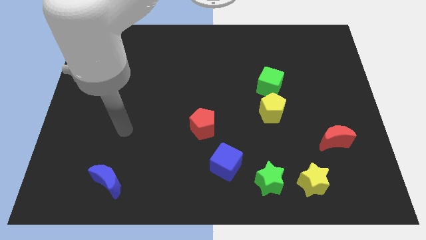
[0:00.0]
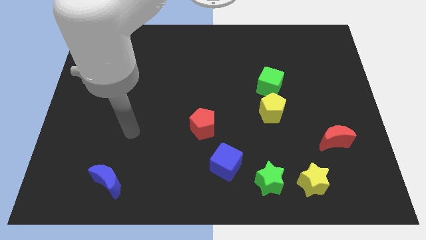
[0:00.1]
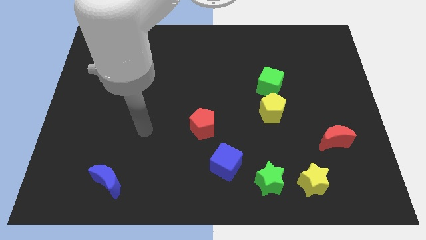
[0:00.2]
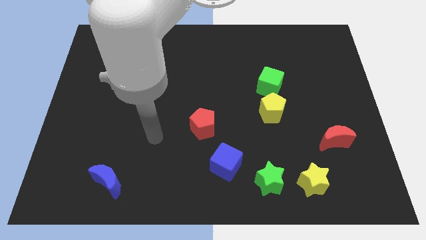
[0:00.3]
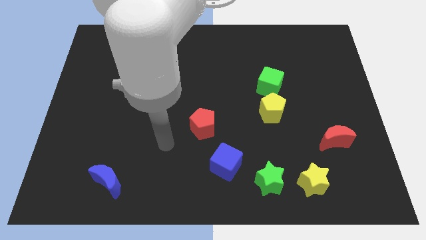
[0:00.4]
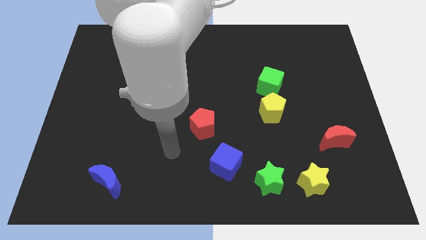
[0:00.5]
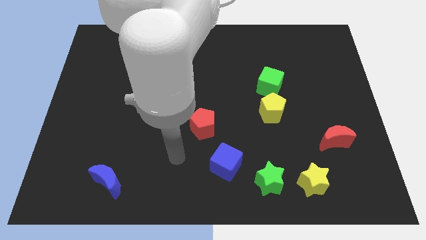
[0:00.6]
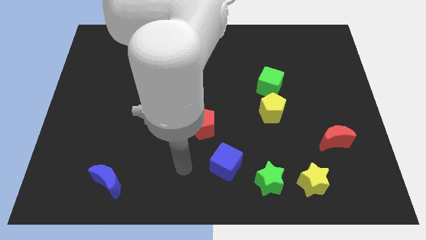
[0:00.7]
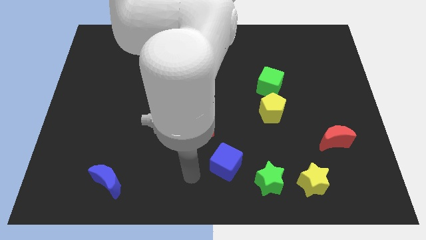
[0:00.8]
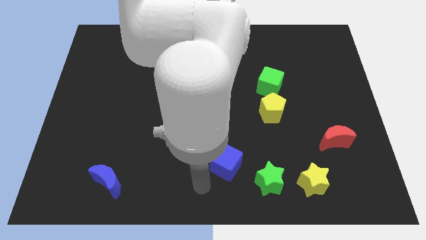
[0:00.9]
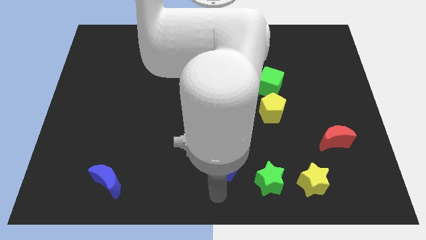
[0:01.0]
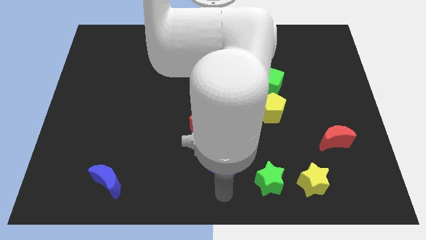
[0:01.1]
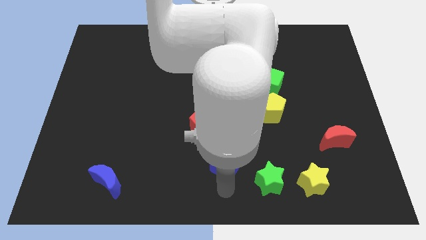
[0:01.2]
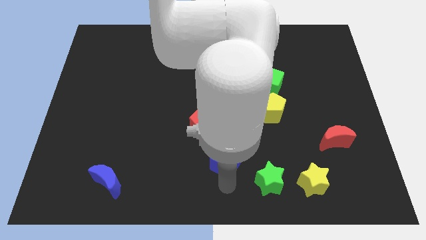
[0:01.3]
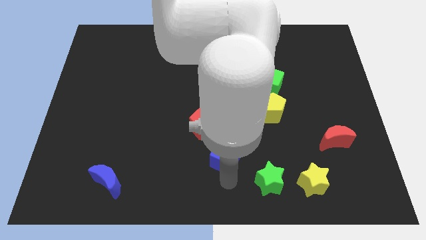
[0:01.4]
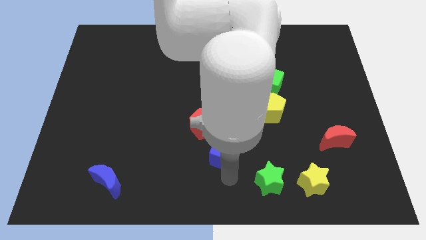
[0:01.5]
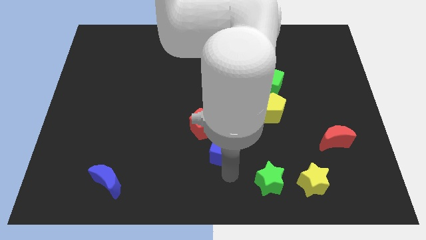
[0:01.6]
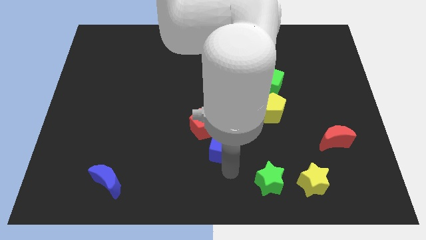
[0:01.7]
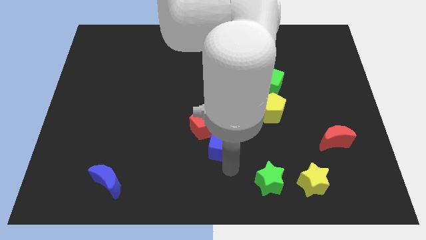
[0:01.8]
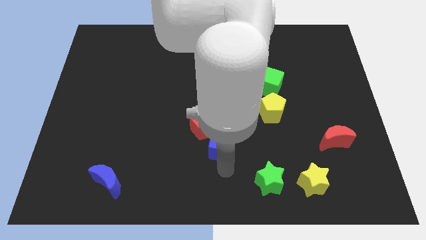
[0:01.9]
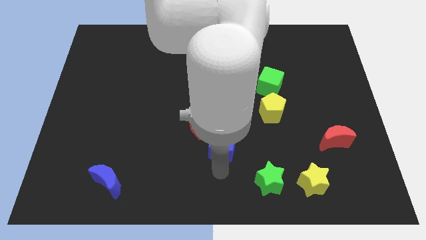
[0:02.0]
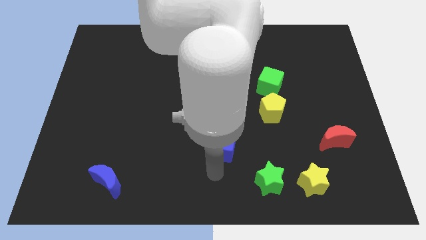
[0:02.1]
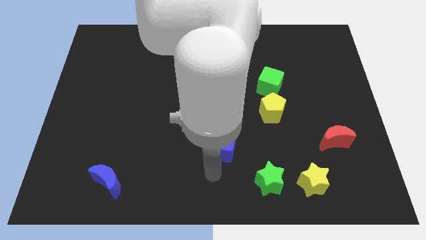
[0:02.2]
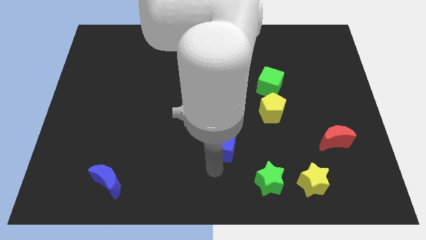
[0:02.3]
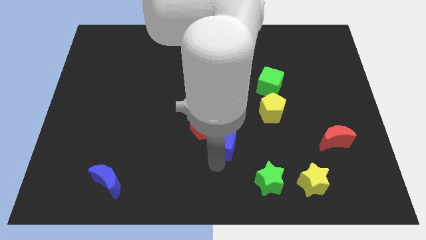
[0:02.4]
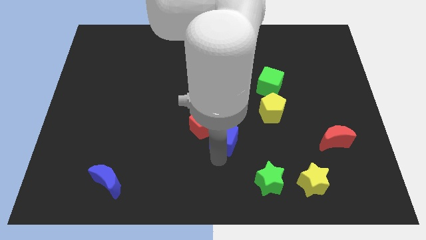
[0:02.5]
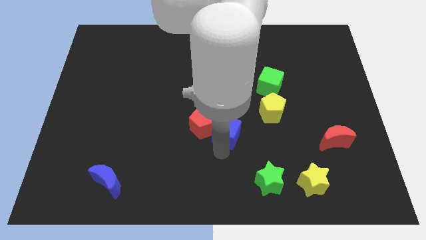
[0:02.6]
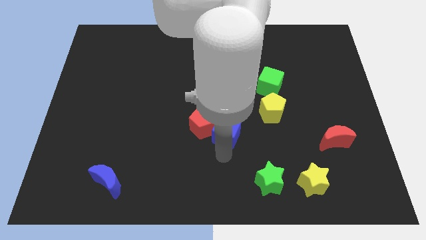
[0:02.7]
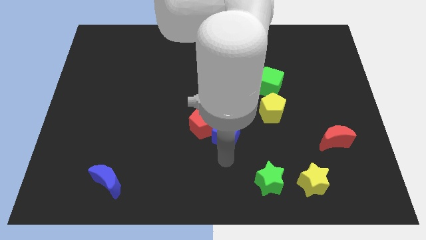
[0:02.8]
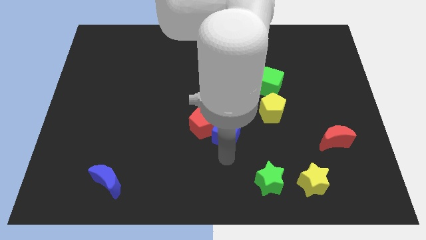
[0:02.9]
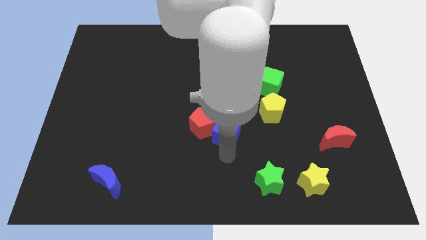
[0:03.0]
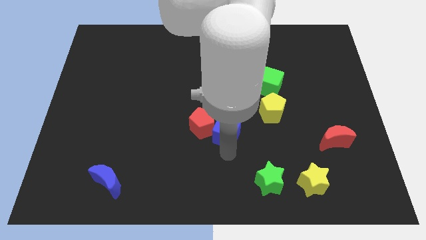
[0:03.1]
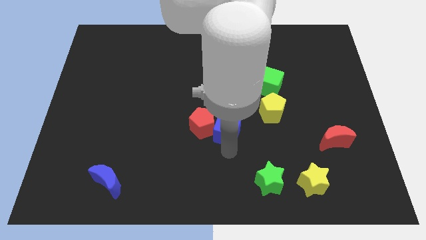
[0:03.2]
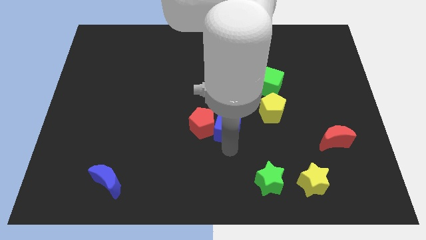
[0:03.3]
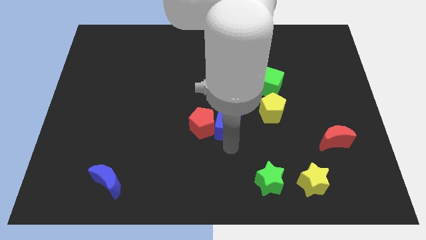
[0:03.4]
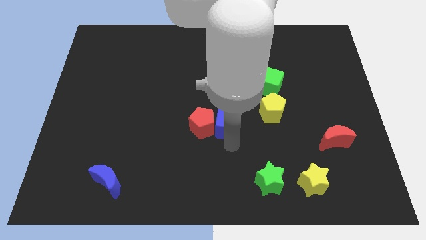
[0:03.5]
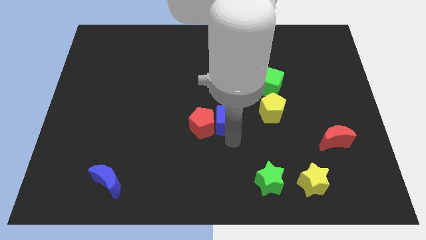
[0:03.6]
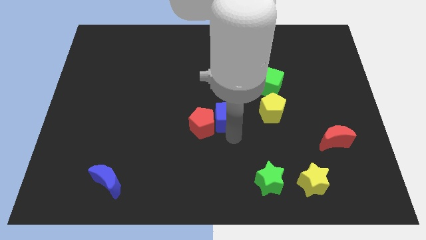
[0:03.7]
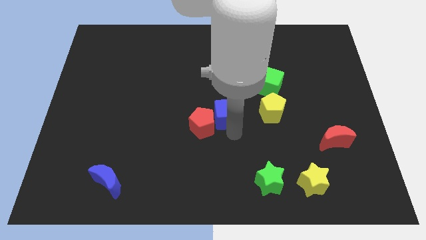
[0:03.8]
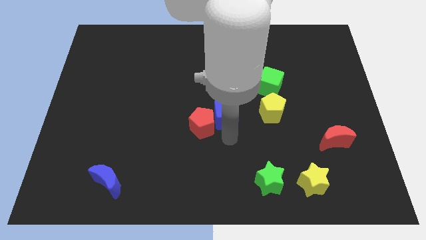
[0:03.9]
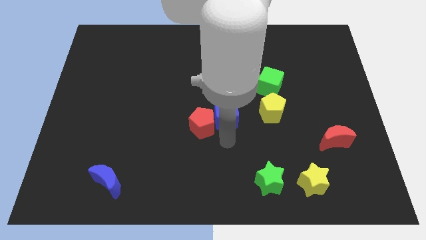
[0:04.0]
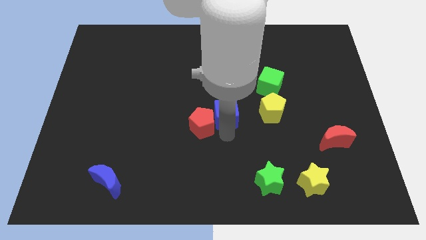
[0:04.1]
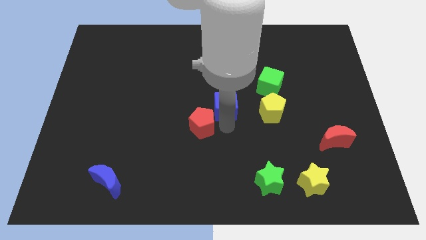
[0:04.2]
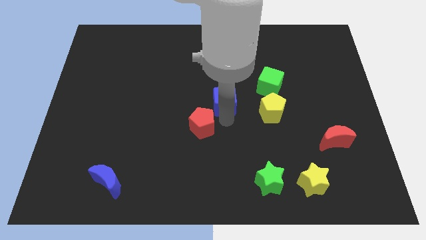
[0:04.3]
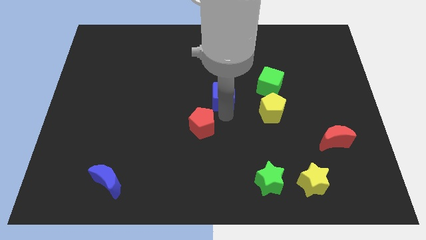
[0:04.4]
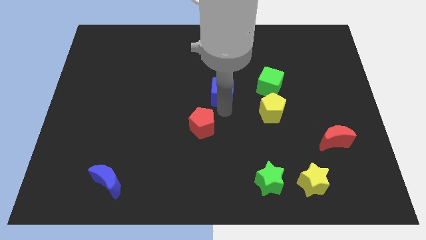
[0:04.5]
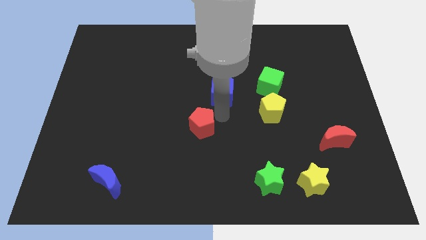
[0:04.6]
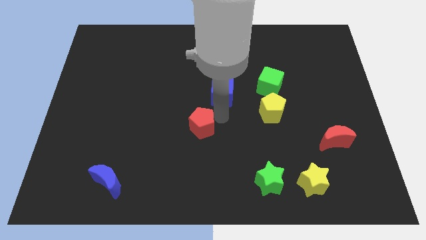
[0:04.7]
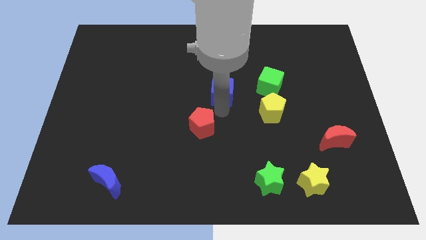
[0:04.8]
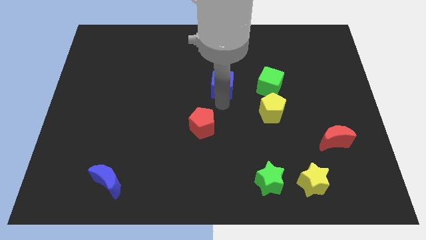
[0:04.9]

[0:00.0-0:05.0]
push the blue cube up

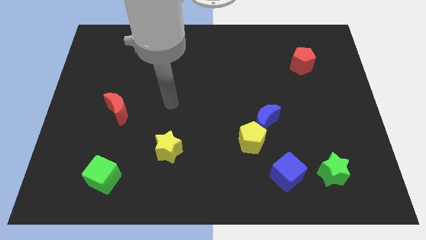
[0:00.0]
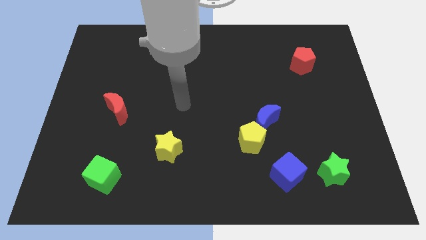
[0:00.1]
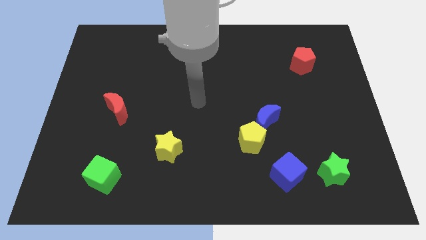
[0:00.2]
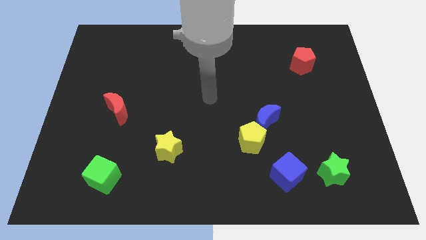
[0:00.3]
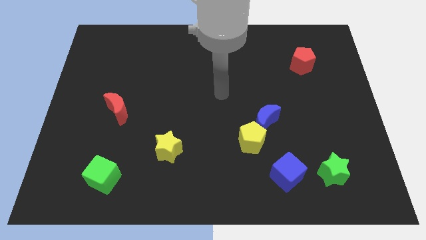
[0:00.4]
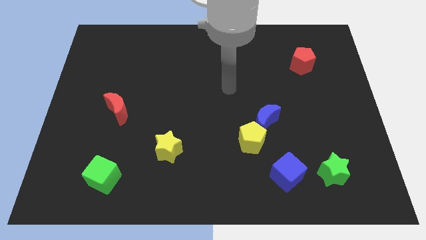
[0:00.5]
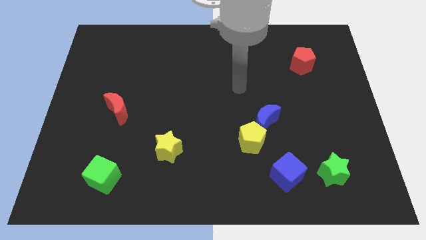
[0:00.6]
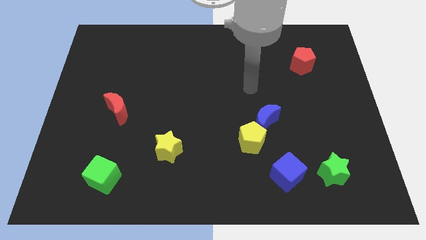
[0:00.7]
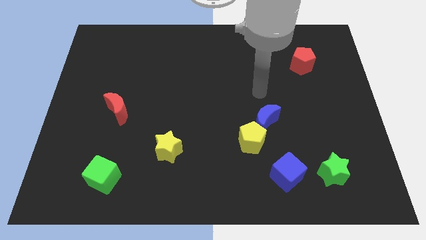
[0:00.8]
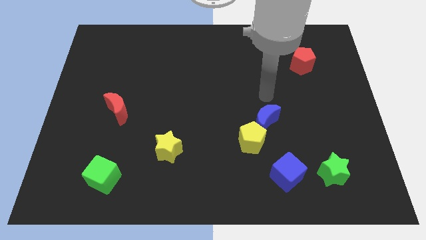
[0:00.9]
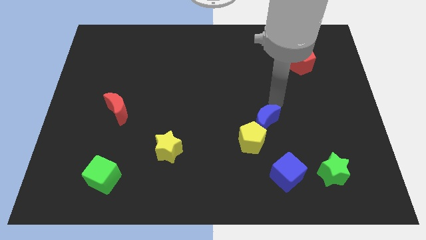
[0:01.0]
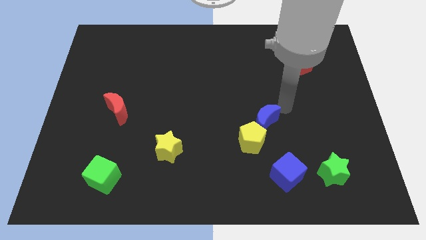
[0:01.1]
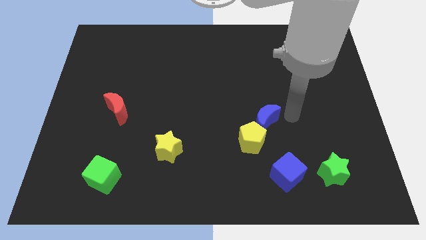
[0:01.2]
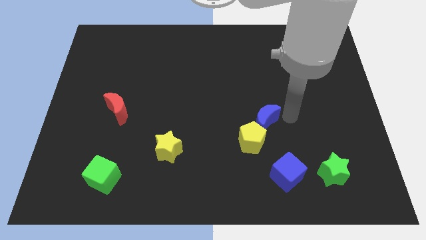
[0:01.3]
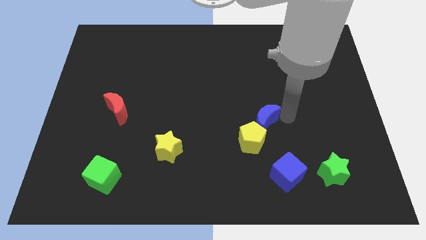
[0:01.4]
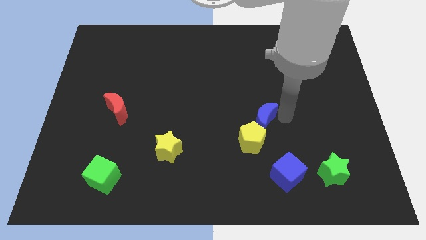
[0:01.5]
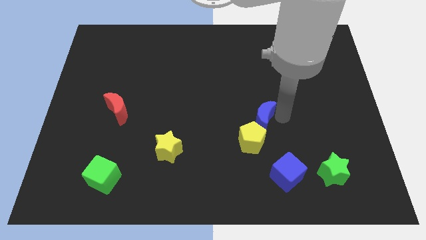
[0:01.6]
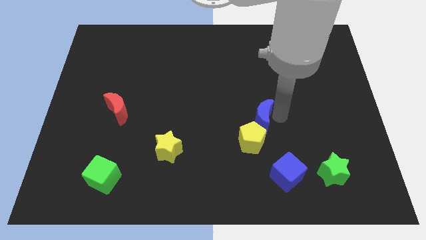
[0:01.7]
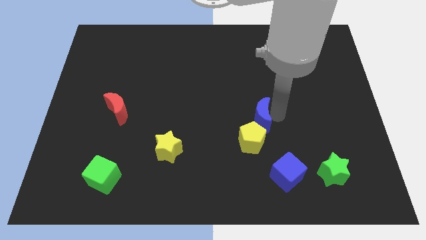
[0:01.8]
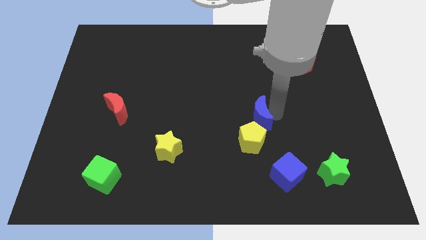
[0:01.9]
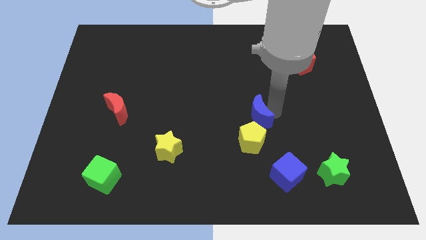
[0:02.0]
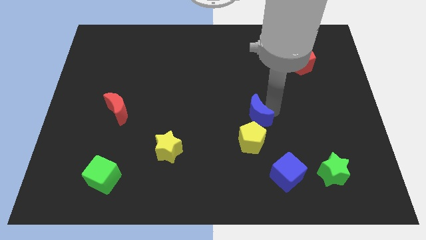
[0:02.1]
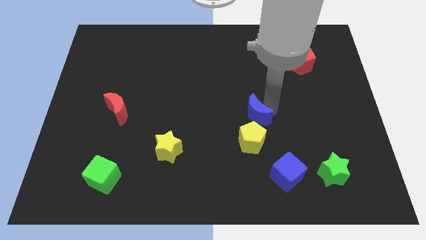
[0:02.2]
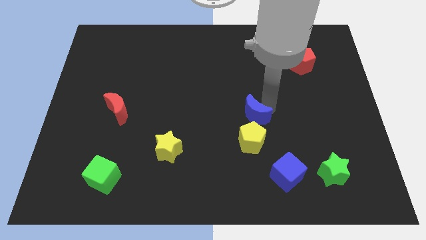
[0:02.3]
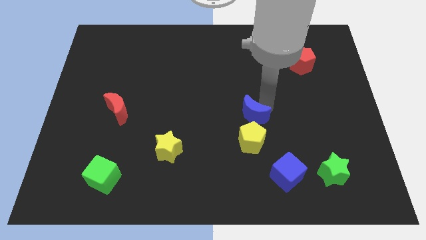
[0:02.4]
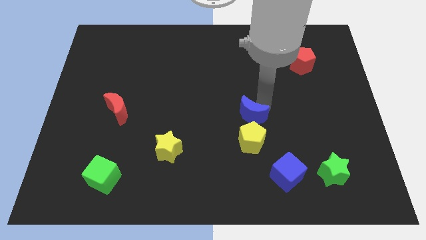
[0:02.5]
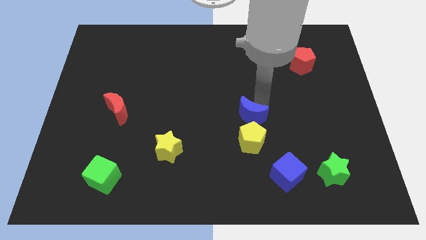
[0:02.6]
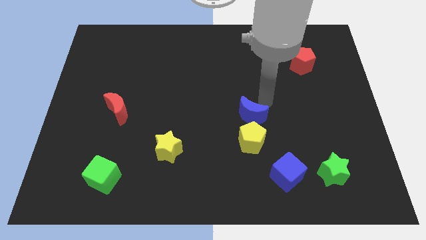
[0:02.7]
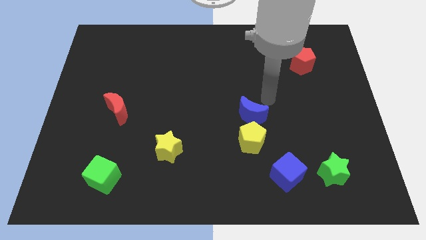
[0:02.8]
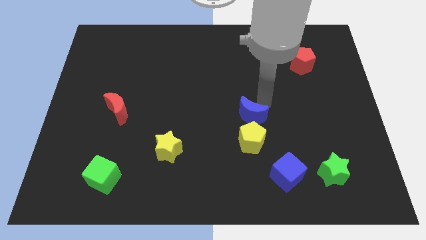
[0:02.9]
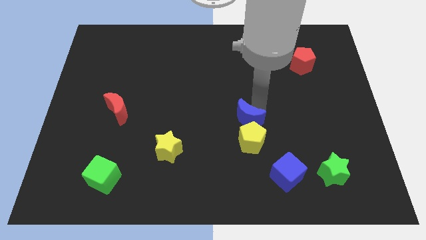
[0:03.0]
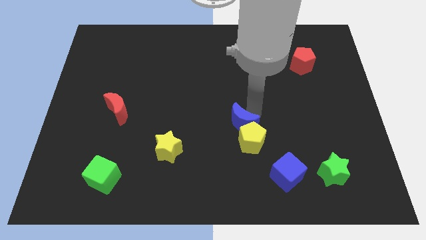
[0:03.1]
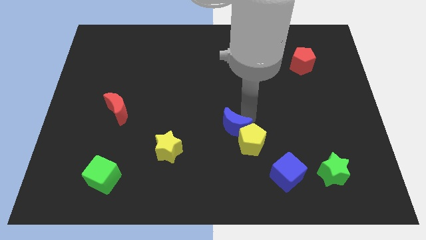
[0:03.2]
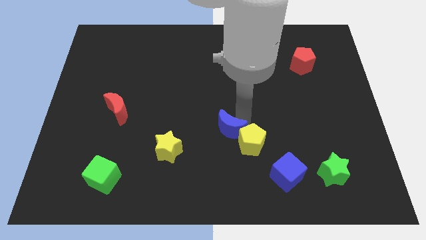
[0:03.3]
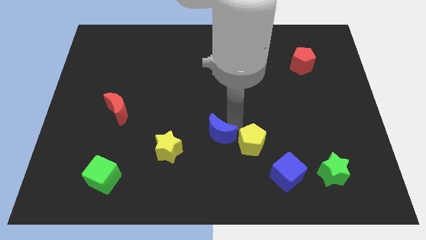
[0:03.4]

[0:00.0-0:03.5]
slide the blue moon somewhat downwards and then to the left
